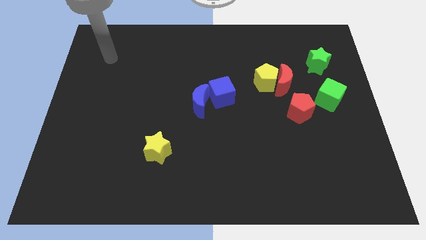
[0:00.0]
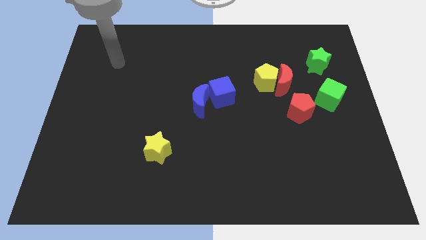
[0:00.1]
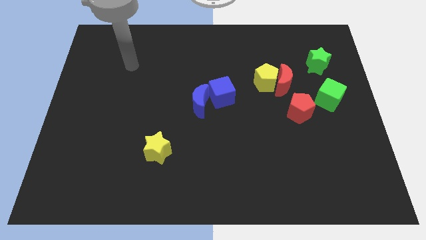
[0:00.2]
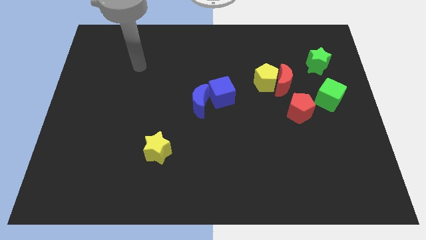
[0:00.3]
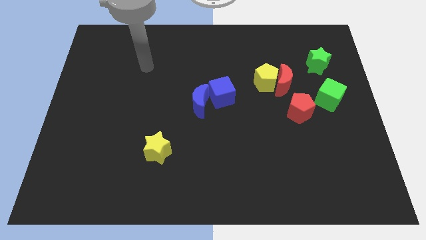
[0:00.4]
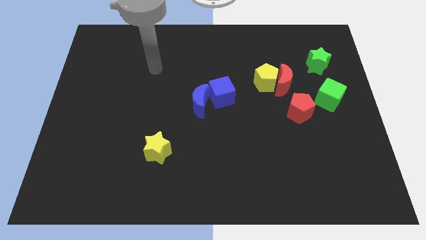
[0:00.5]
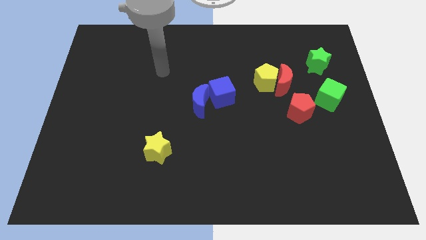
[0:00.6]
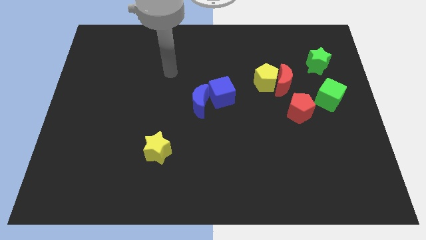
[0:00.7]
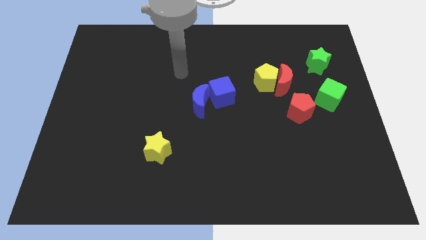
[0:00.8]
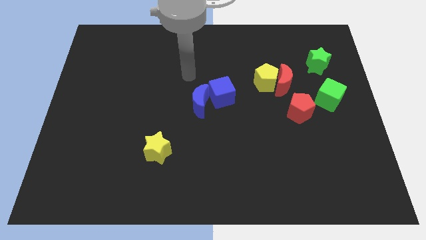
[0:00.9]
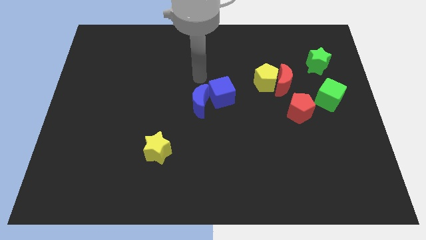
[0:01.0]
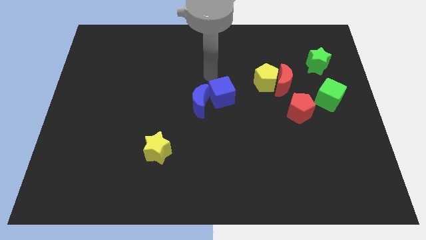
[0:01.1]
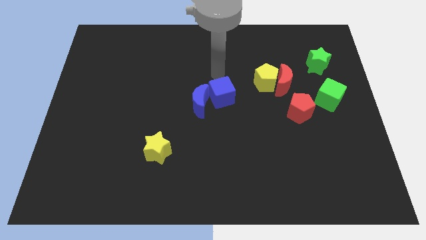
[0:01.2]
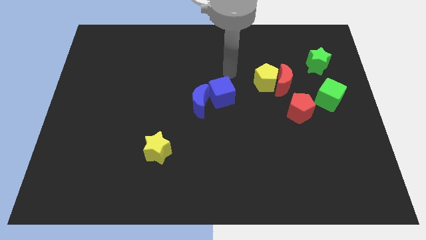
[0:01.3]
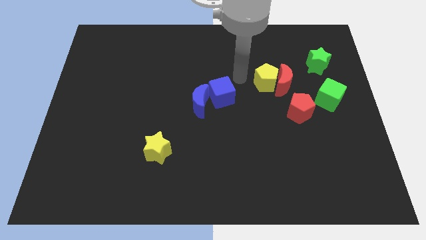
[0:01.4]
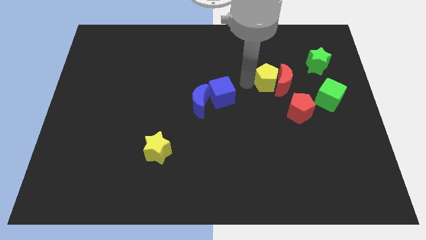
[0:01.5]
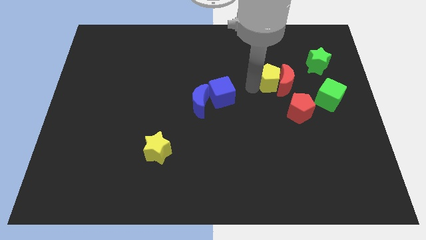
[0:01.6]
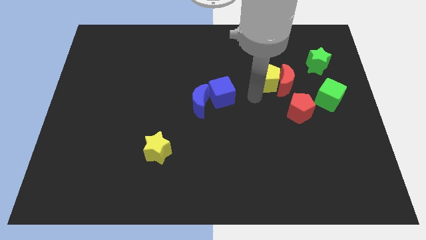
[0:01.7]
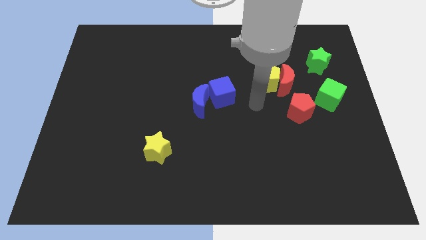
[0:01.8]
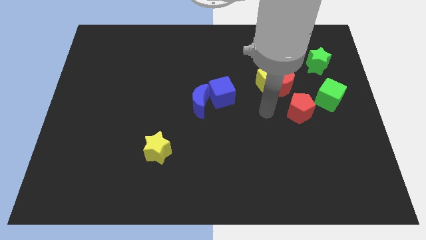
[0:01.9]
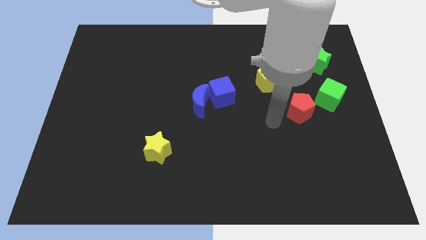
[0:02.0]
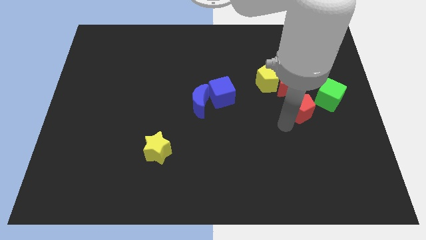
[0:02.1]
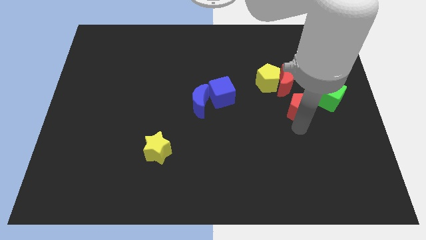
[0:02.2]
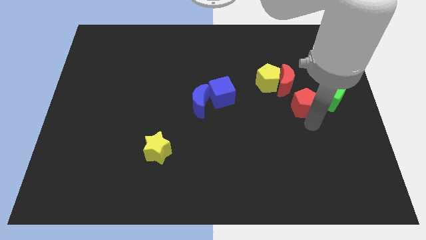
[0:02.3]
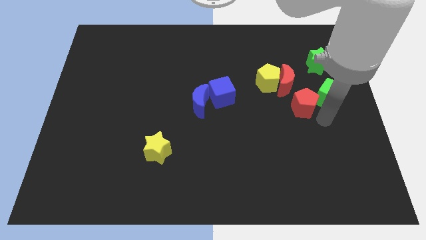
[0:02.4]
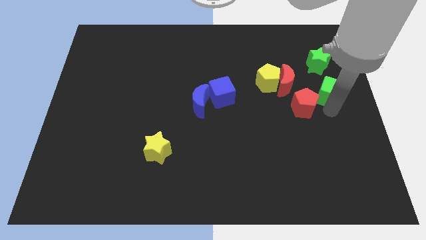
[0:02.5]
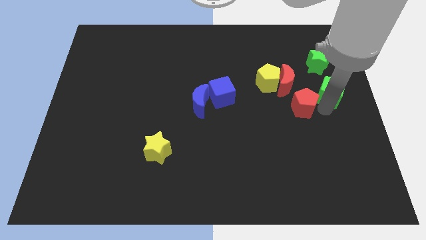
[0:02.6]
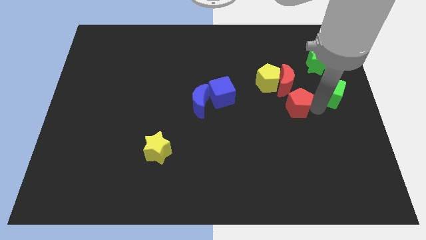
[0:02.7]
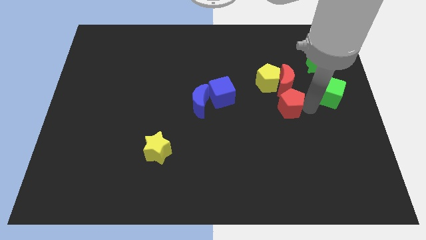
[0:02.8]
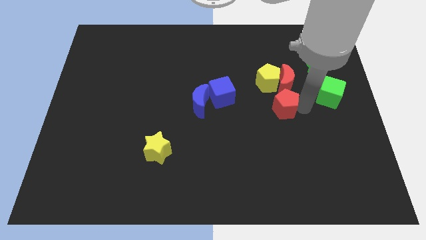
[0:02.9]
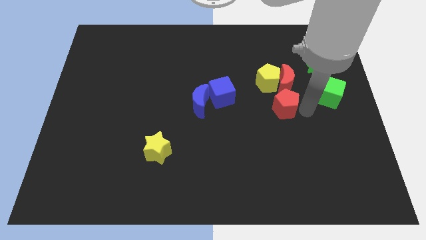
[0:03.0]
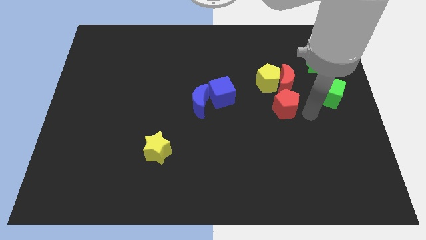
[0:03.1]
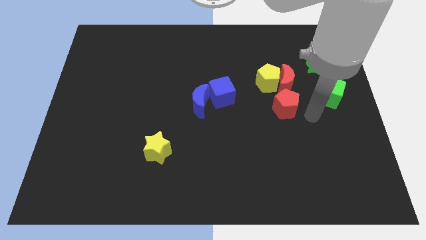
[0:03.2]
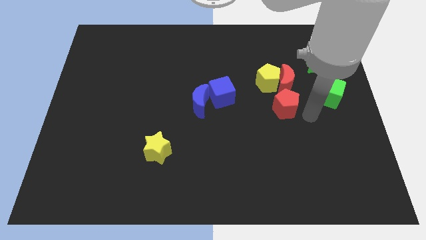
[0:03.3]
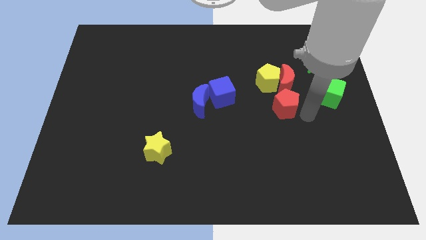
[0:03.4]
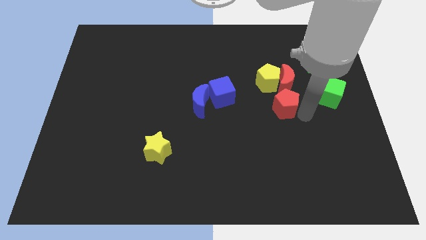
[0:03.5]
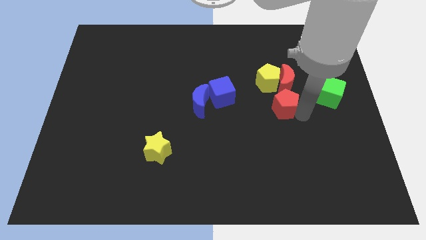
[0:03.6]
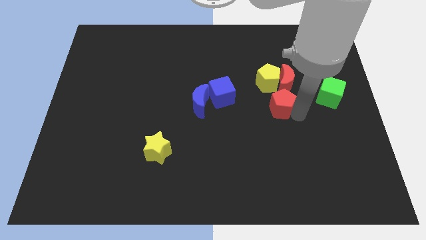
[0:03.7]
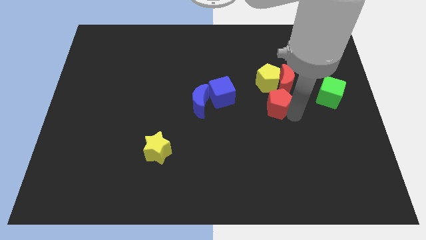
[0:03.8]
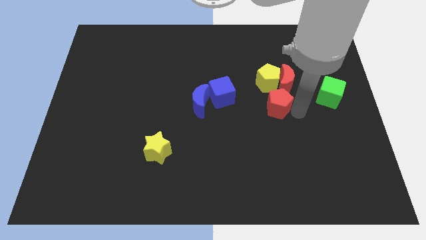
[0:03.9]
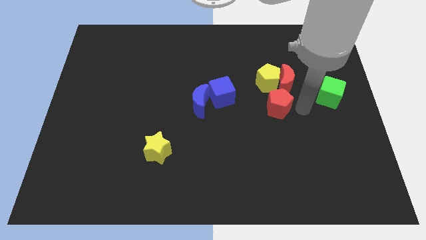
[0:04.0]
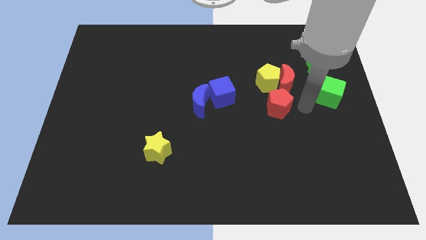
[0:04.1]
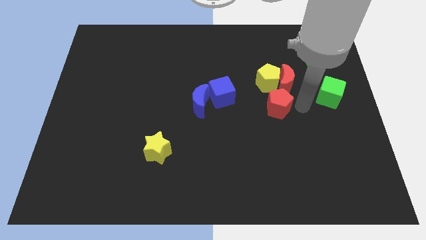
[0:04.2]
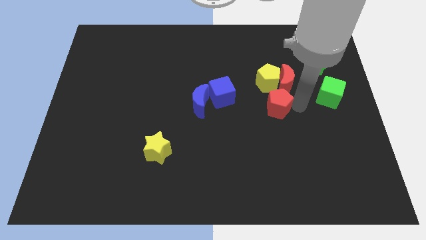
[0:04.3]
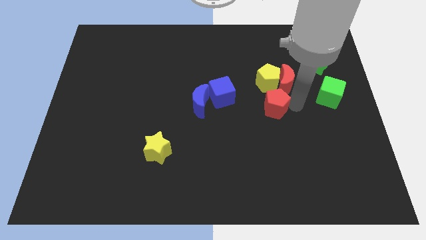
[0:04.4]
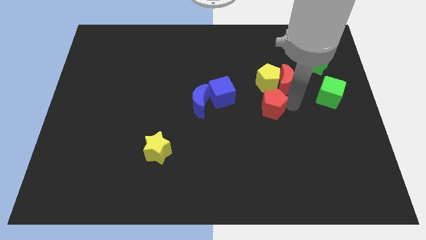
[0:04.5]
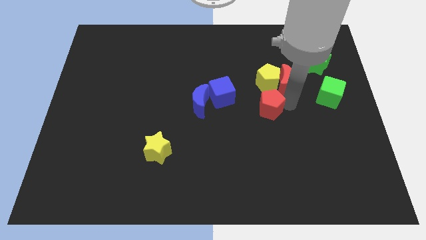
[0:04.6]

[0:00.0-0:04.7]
push the red pentagon somewhat left

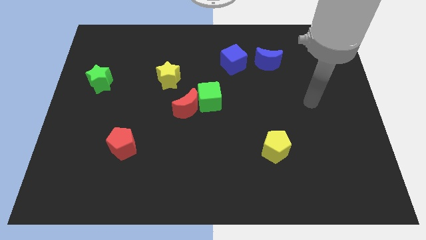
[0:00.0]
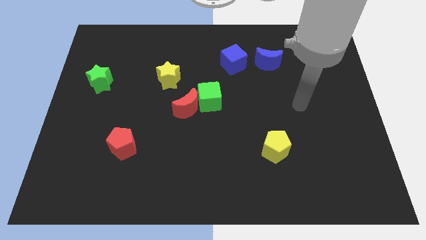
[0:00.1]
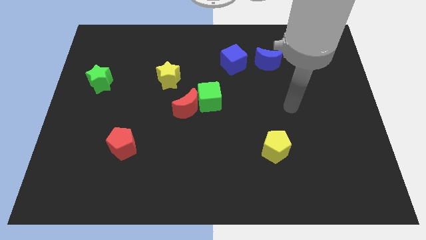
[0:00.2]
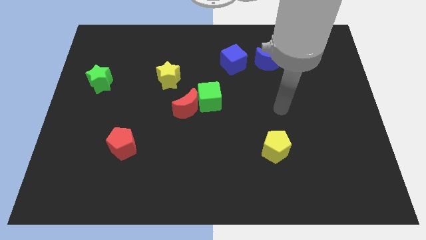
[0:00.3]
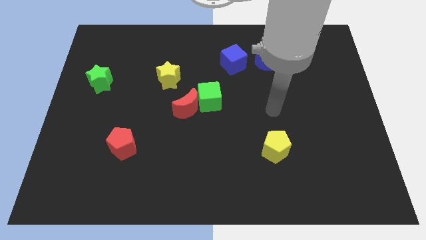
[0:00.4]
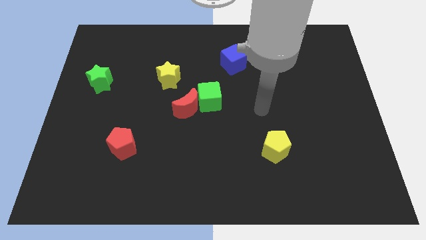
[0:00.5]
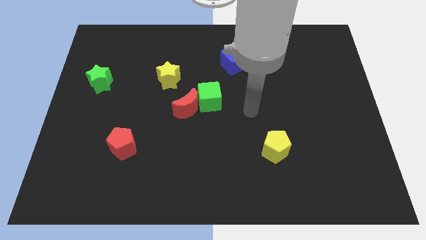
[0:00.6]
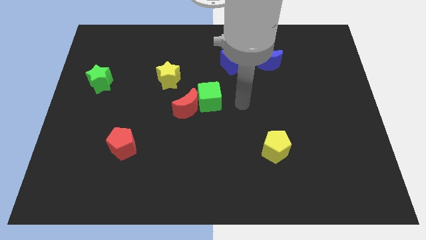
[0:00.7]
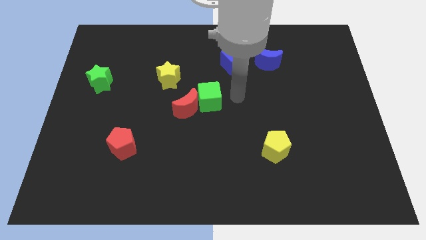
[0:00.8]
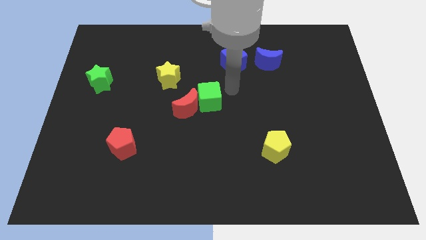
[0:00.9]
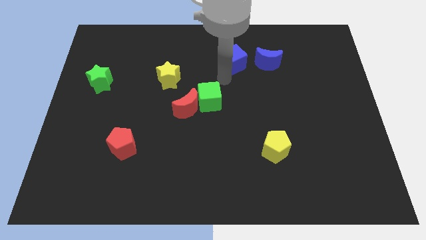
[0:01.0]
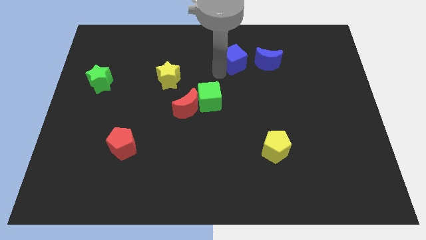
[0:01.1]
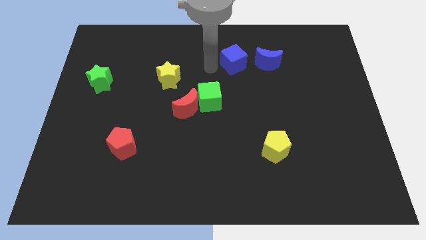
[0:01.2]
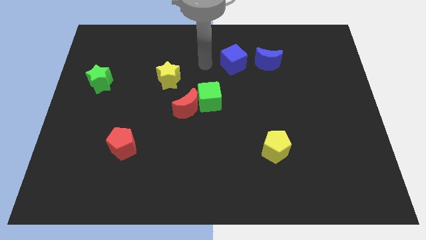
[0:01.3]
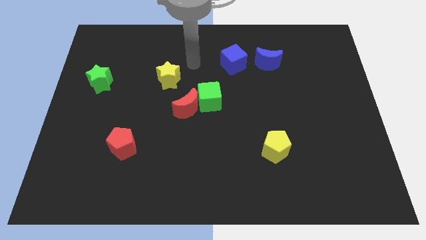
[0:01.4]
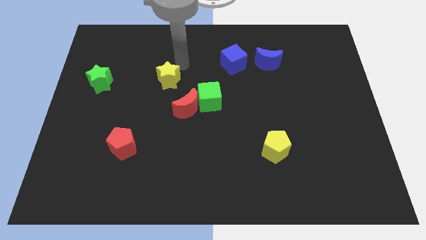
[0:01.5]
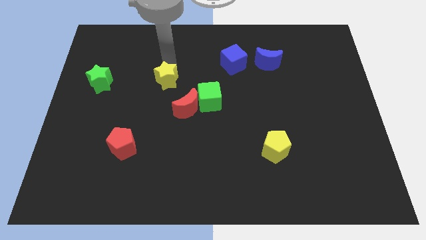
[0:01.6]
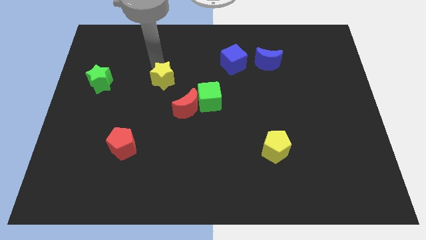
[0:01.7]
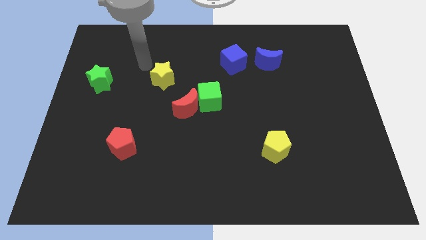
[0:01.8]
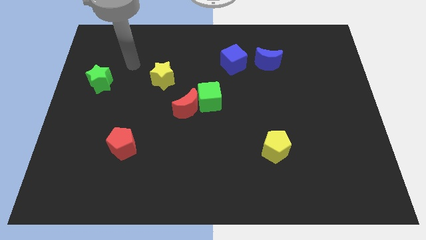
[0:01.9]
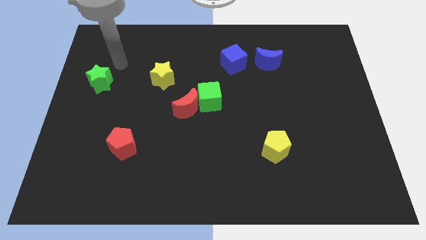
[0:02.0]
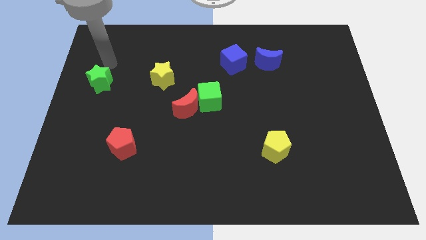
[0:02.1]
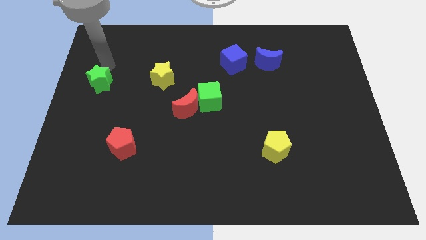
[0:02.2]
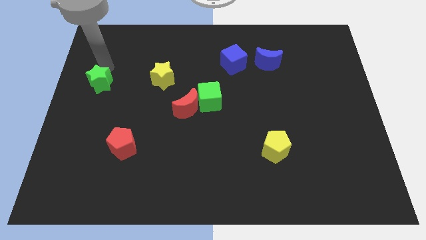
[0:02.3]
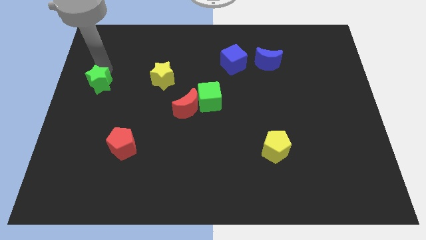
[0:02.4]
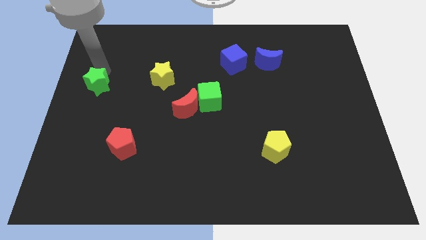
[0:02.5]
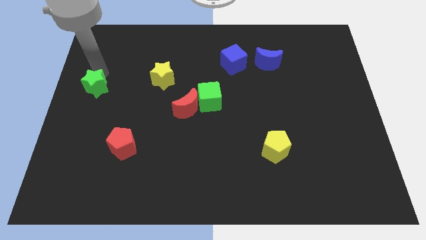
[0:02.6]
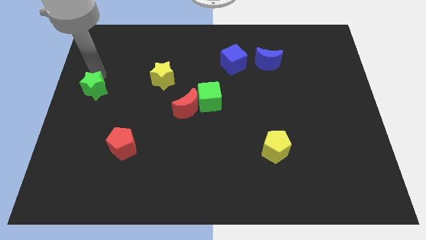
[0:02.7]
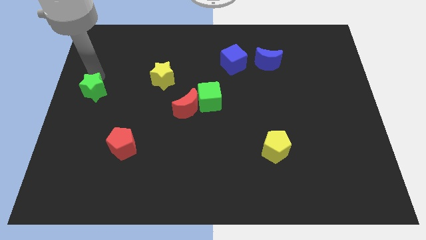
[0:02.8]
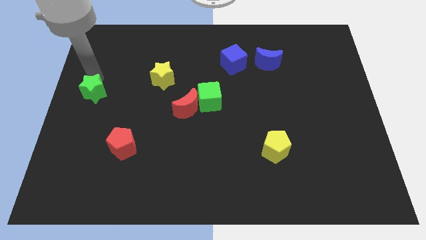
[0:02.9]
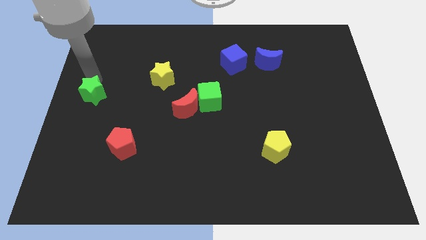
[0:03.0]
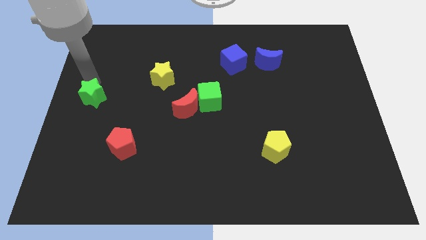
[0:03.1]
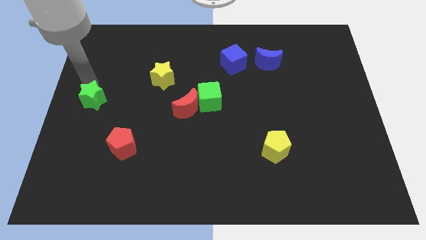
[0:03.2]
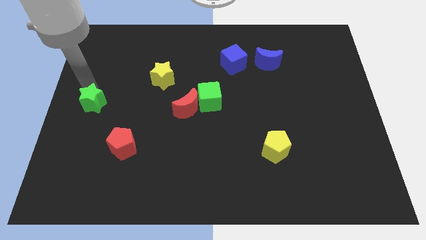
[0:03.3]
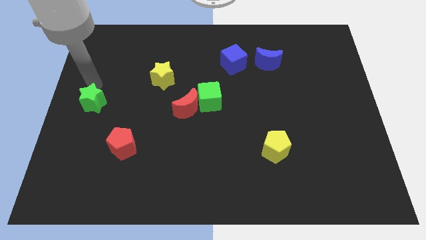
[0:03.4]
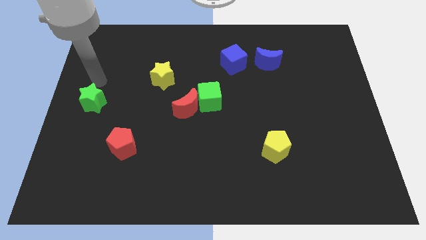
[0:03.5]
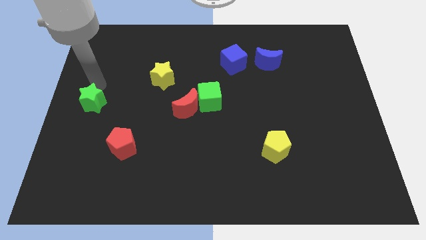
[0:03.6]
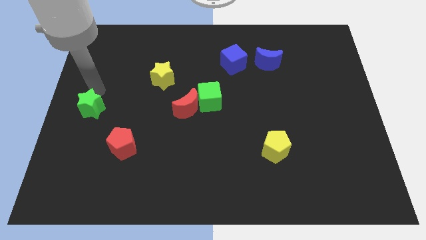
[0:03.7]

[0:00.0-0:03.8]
slide the green star a little downwards
